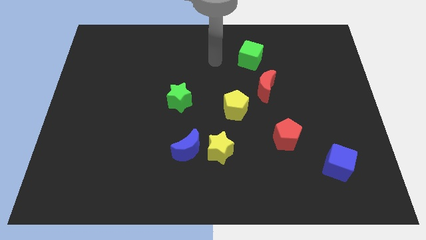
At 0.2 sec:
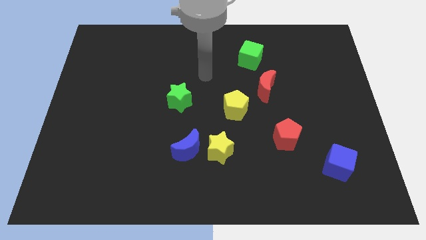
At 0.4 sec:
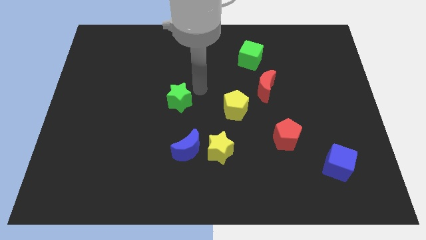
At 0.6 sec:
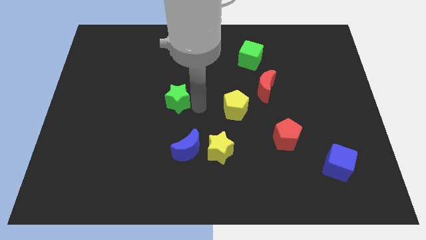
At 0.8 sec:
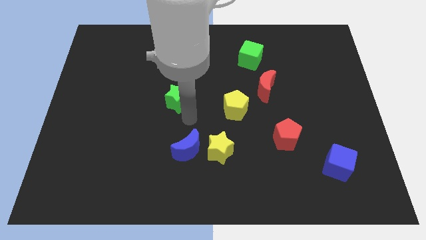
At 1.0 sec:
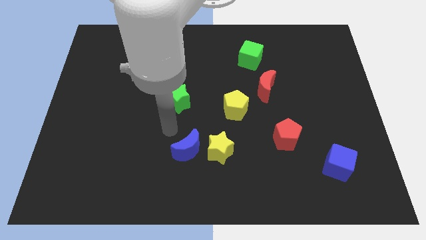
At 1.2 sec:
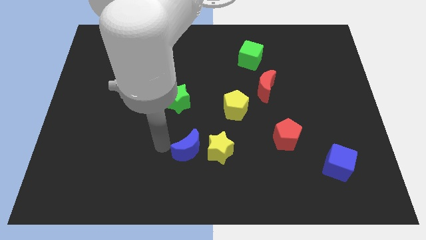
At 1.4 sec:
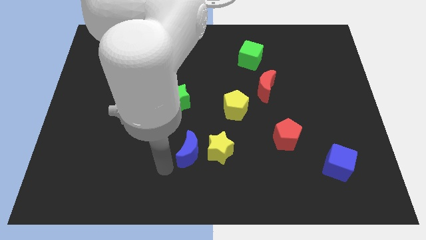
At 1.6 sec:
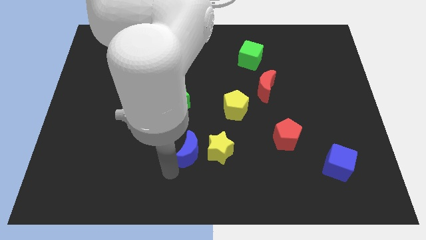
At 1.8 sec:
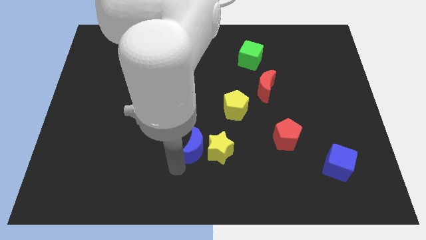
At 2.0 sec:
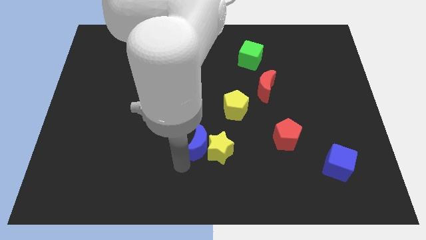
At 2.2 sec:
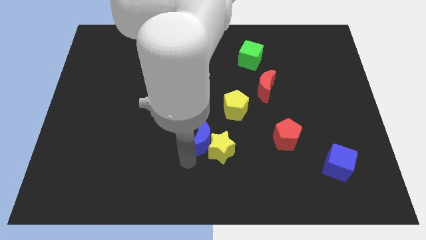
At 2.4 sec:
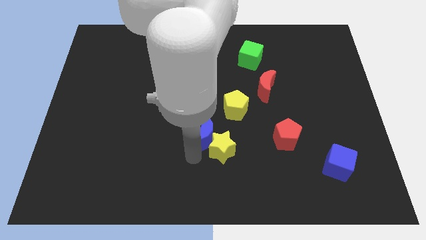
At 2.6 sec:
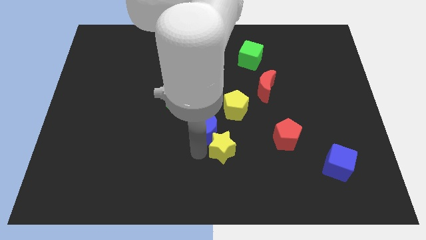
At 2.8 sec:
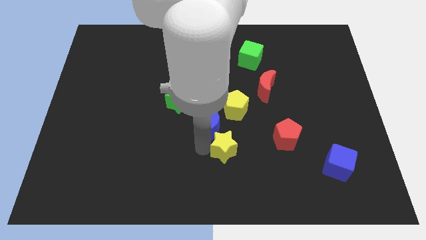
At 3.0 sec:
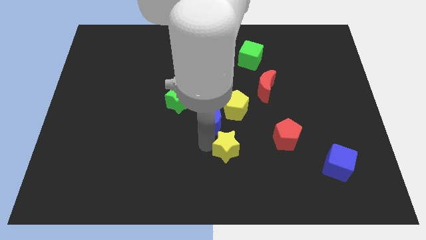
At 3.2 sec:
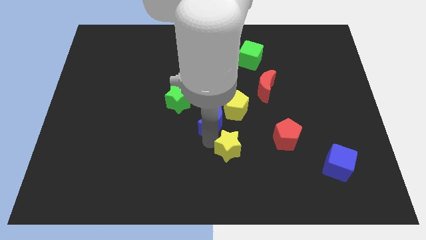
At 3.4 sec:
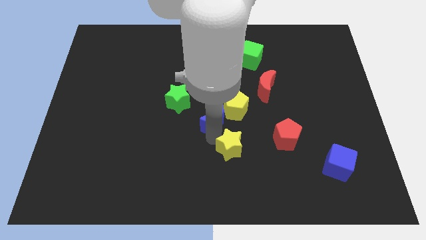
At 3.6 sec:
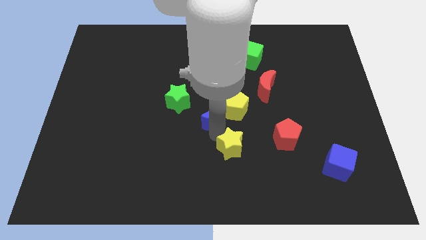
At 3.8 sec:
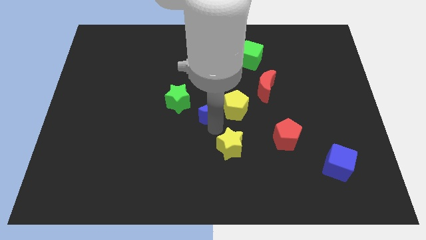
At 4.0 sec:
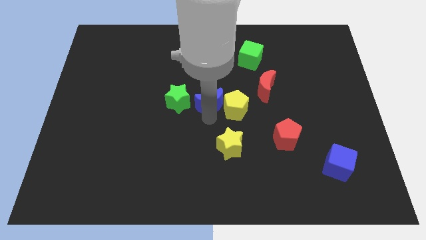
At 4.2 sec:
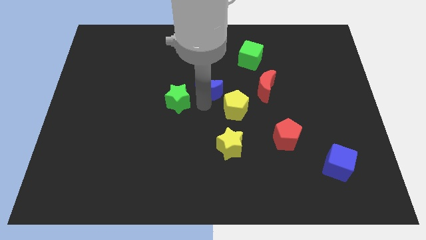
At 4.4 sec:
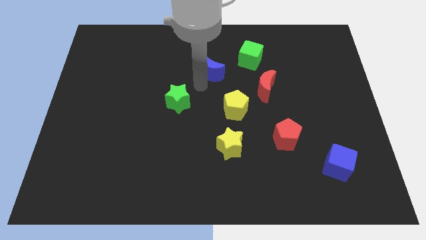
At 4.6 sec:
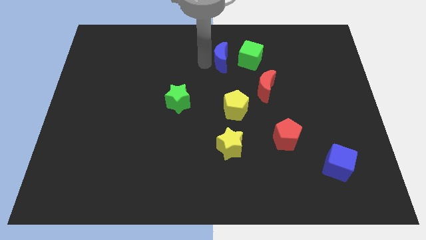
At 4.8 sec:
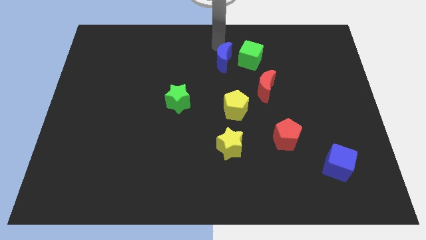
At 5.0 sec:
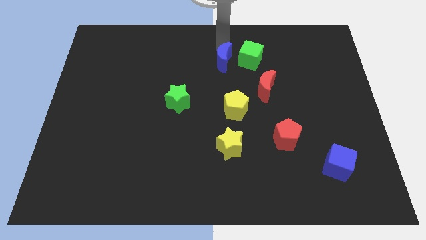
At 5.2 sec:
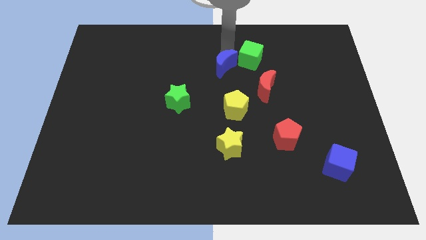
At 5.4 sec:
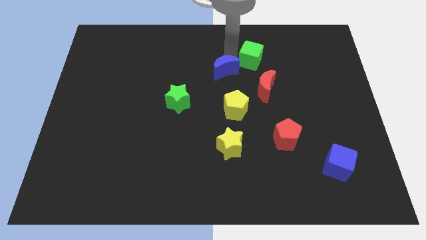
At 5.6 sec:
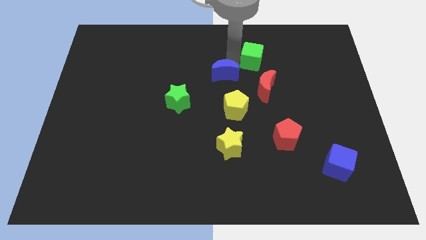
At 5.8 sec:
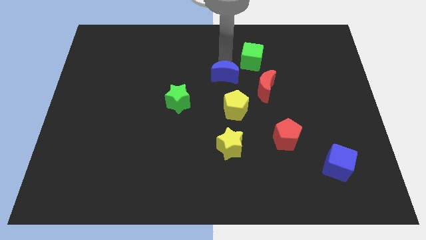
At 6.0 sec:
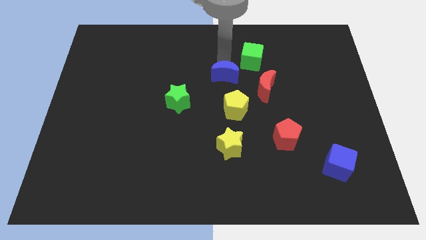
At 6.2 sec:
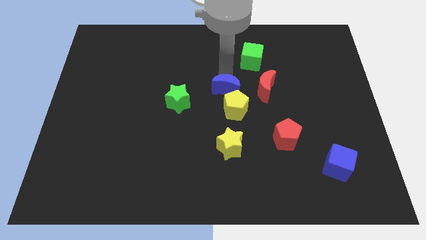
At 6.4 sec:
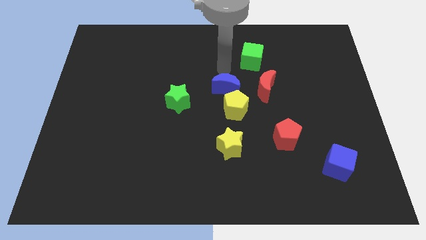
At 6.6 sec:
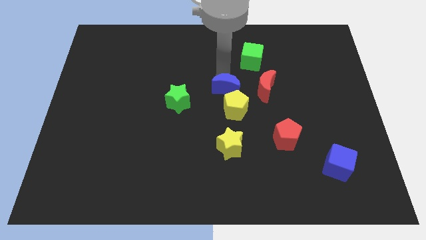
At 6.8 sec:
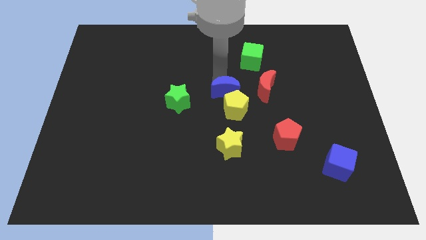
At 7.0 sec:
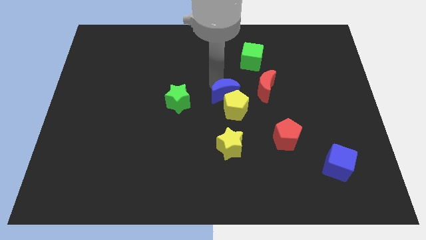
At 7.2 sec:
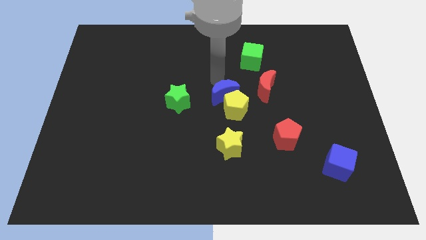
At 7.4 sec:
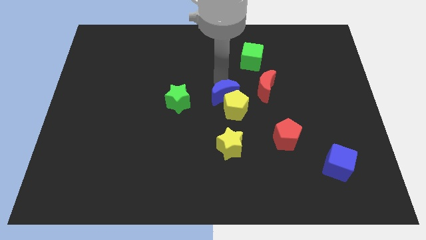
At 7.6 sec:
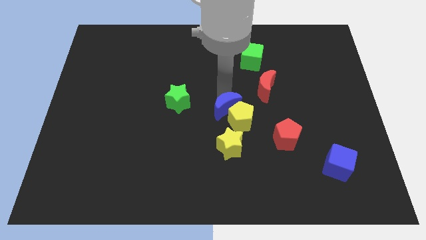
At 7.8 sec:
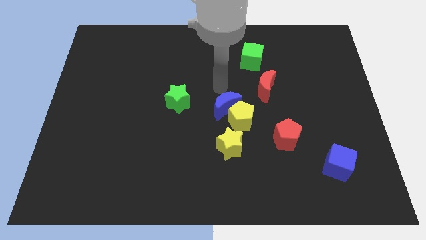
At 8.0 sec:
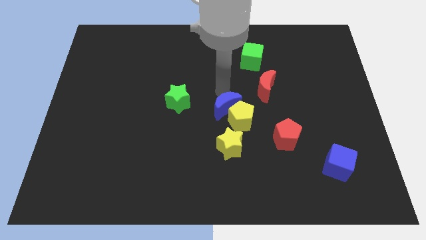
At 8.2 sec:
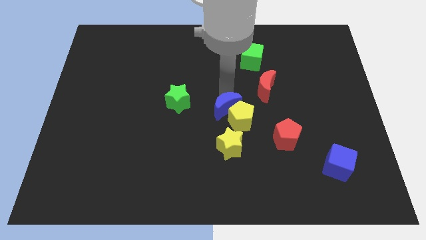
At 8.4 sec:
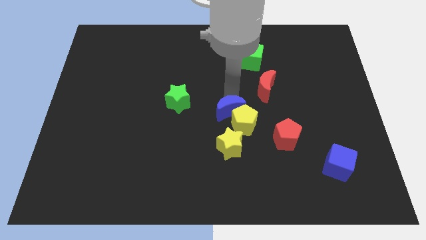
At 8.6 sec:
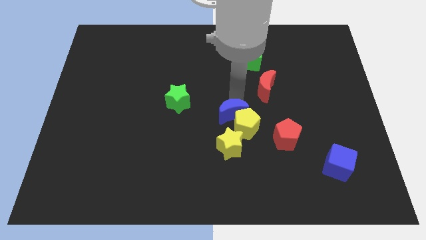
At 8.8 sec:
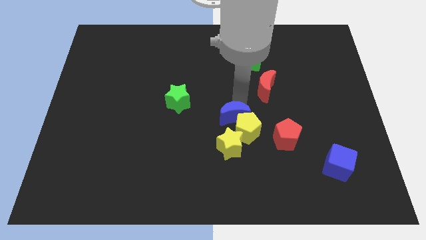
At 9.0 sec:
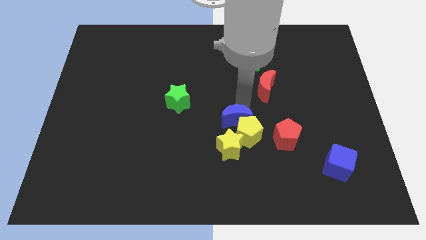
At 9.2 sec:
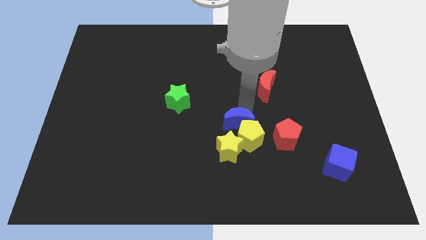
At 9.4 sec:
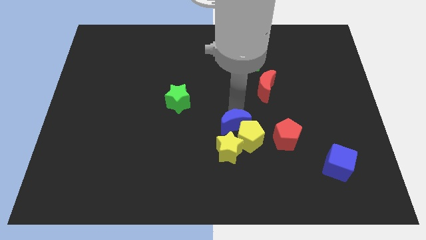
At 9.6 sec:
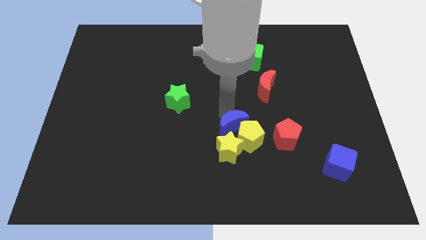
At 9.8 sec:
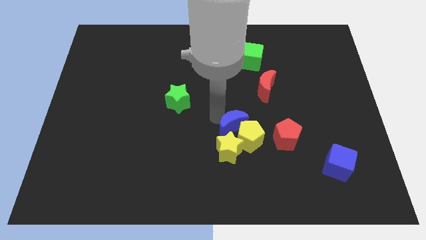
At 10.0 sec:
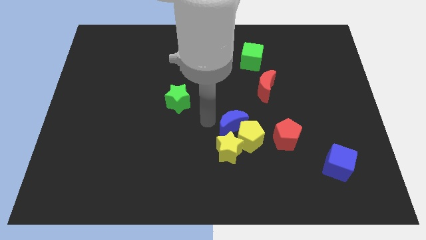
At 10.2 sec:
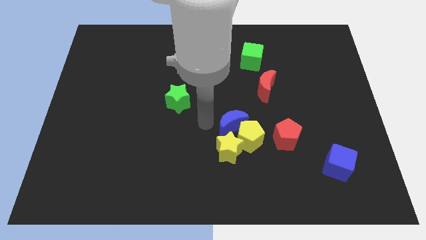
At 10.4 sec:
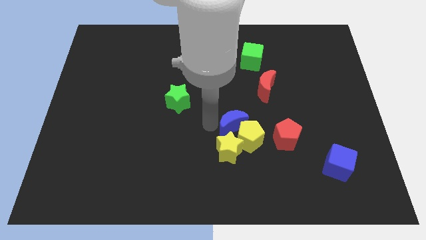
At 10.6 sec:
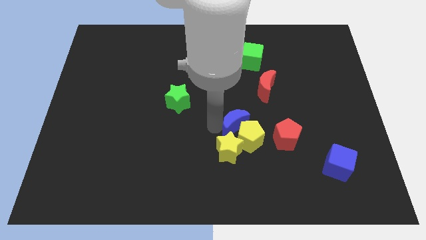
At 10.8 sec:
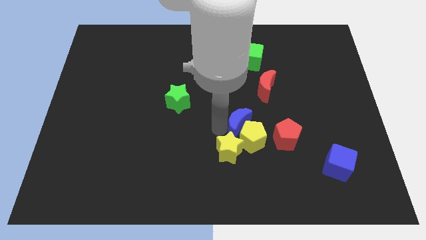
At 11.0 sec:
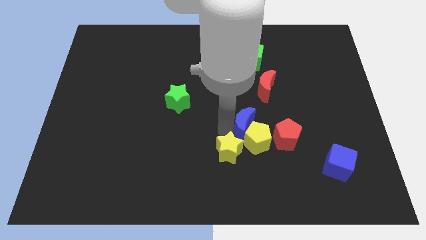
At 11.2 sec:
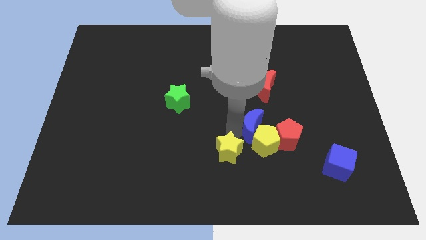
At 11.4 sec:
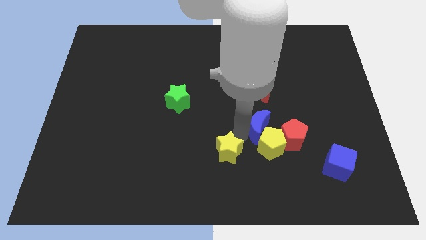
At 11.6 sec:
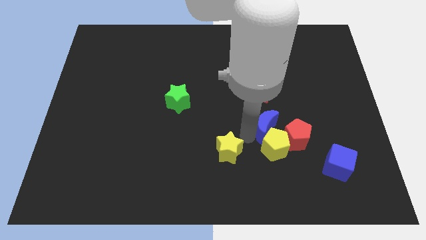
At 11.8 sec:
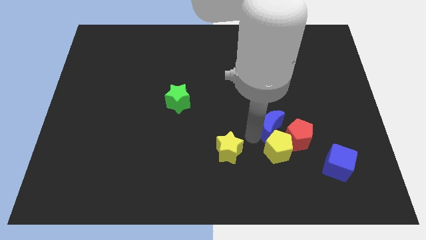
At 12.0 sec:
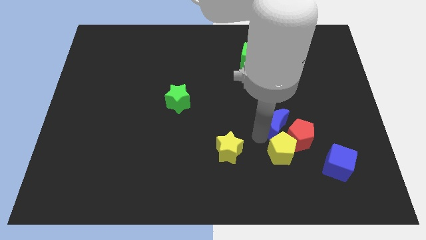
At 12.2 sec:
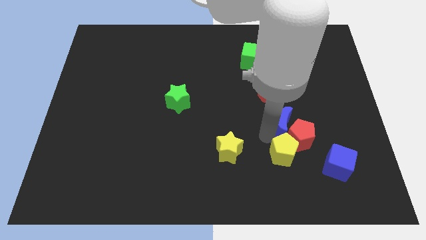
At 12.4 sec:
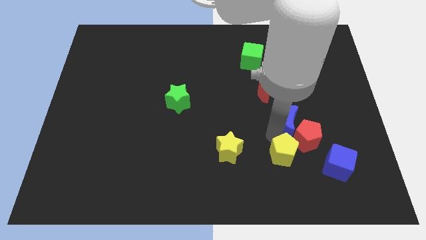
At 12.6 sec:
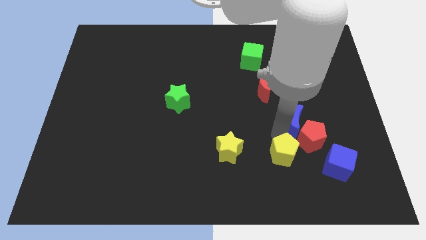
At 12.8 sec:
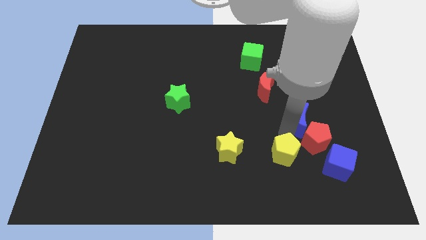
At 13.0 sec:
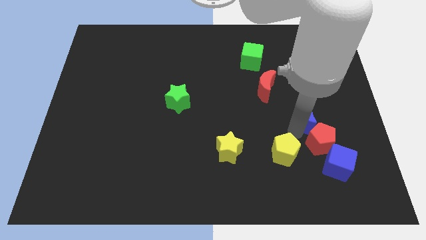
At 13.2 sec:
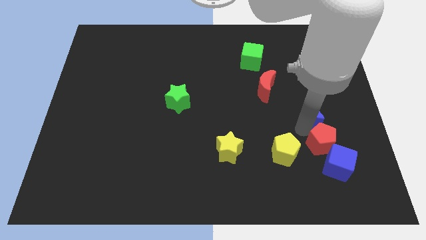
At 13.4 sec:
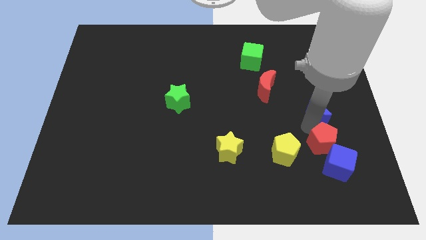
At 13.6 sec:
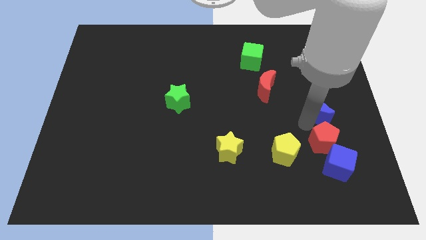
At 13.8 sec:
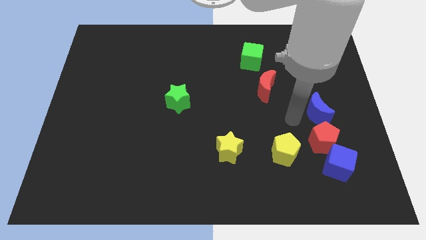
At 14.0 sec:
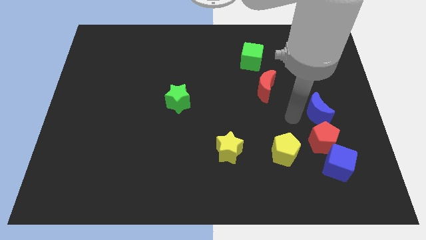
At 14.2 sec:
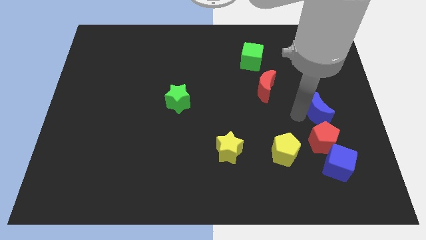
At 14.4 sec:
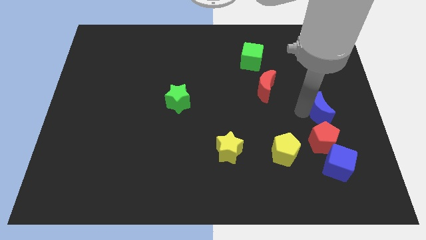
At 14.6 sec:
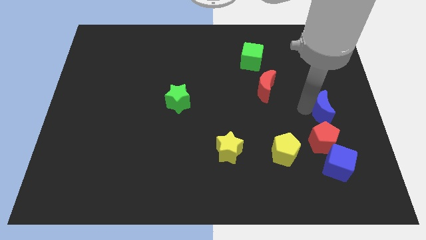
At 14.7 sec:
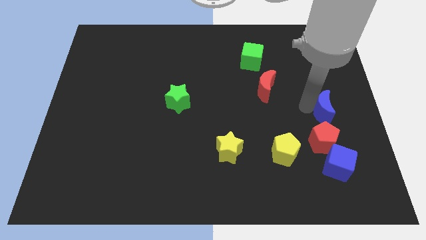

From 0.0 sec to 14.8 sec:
push the blue moon to the right side of the board
